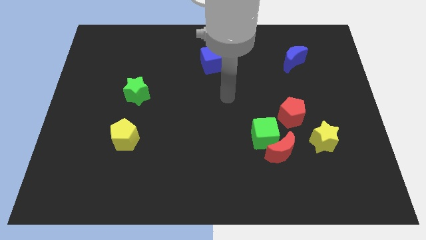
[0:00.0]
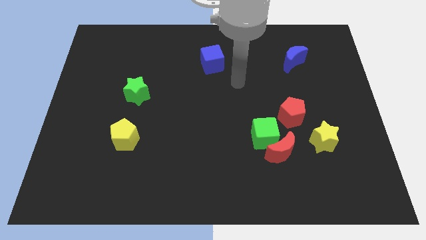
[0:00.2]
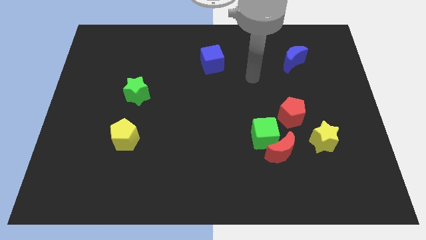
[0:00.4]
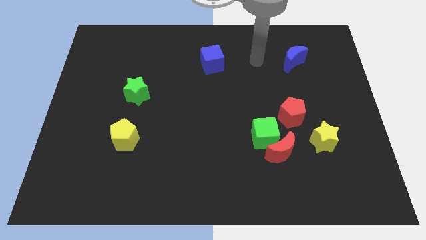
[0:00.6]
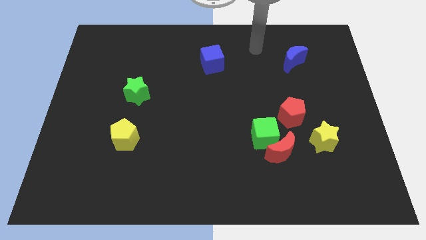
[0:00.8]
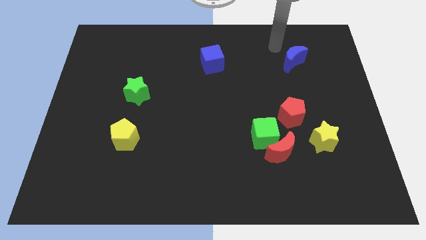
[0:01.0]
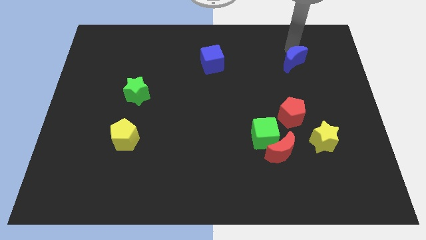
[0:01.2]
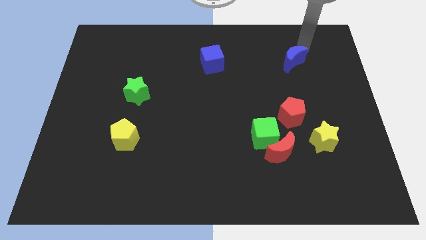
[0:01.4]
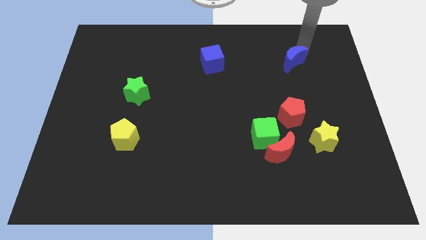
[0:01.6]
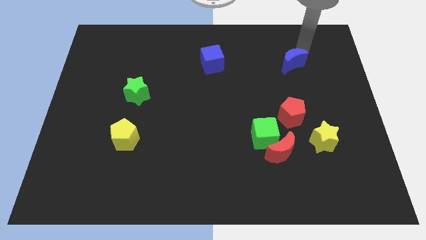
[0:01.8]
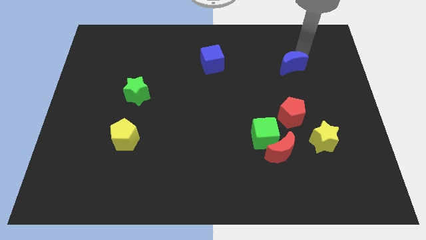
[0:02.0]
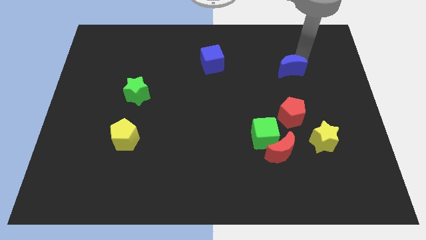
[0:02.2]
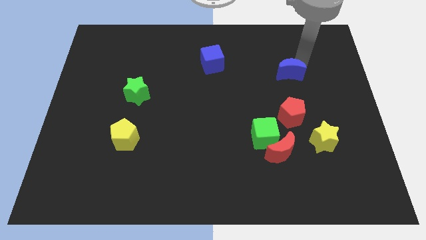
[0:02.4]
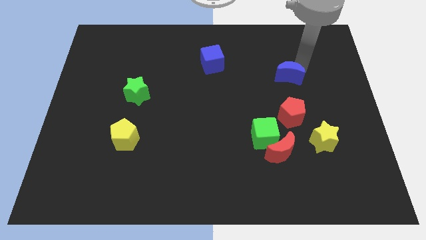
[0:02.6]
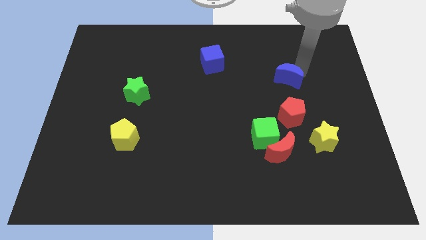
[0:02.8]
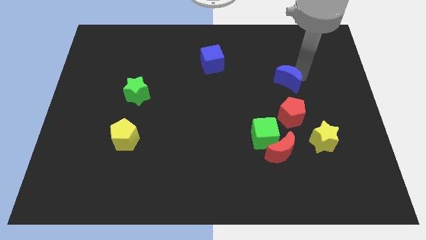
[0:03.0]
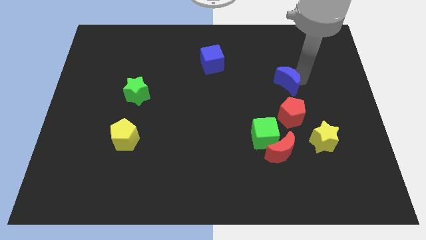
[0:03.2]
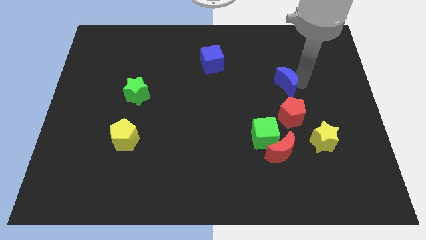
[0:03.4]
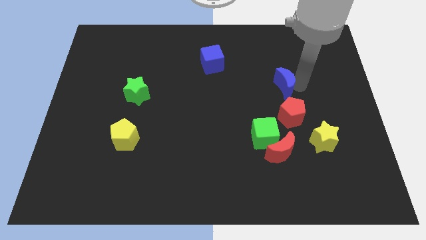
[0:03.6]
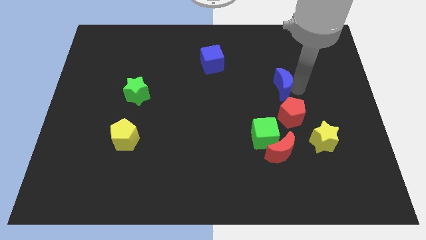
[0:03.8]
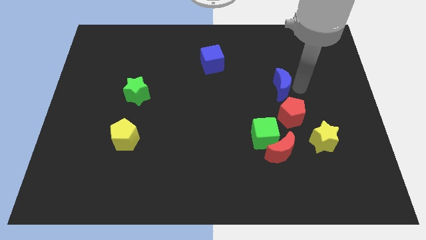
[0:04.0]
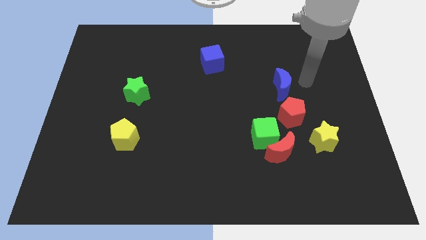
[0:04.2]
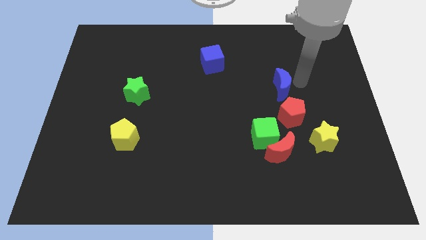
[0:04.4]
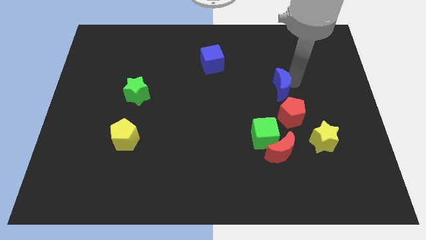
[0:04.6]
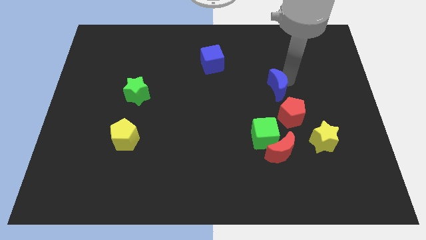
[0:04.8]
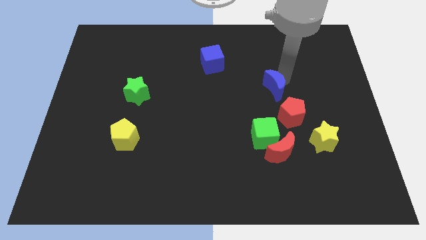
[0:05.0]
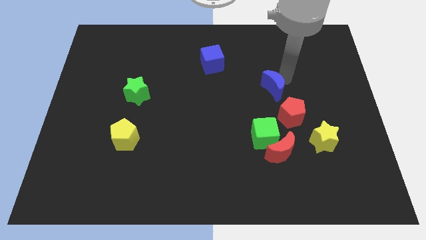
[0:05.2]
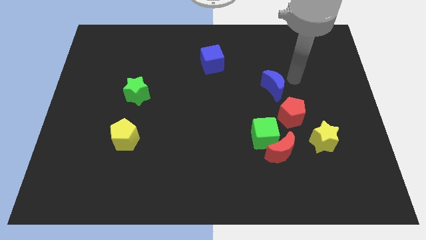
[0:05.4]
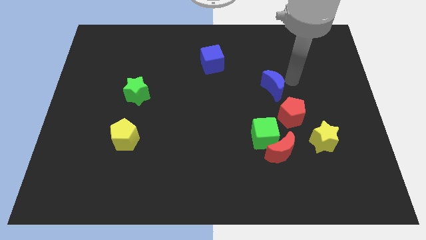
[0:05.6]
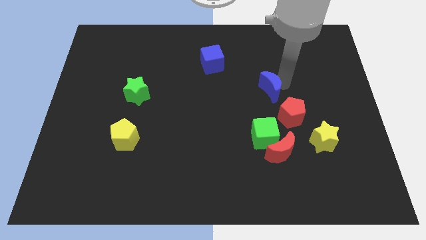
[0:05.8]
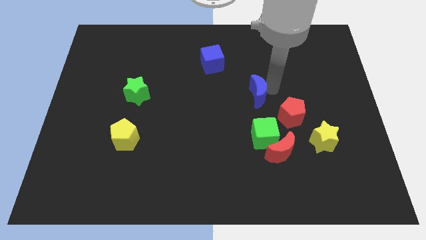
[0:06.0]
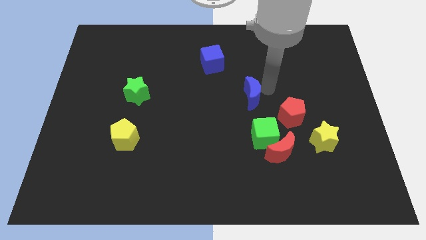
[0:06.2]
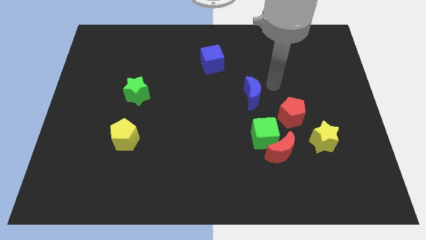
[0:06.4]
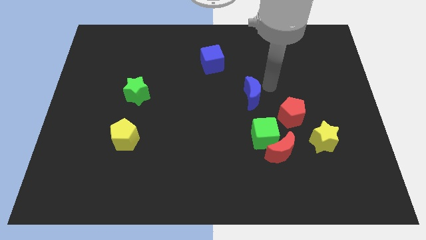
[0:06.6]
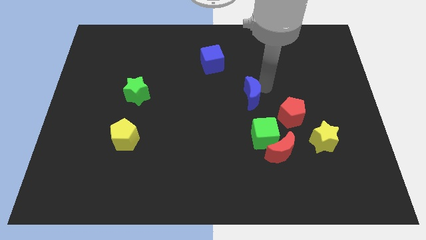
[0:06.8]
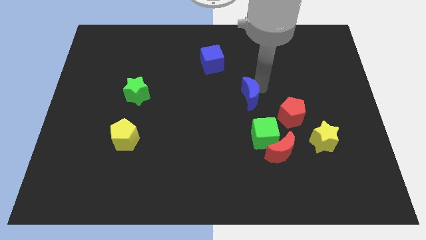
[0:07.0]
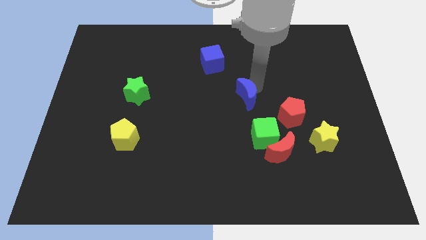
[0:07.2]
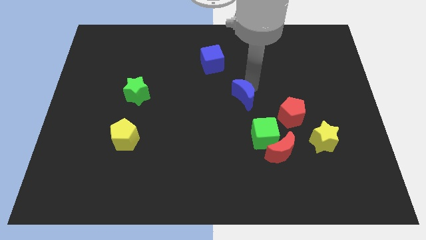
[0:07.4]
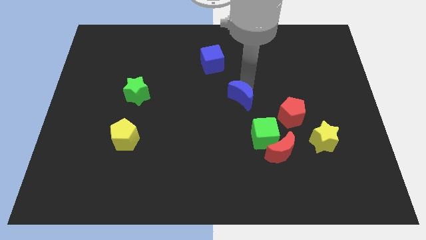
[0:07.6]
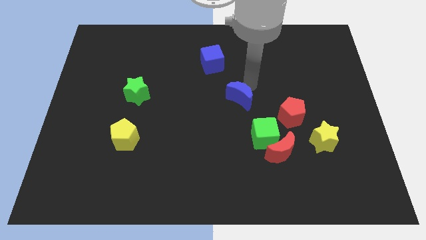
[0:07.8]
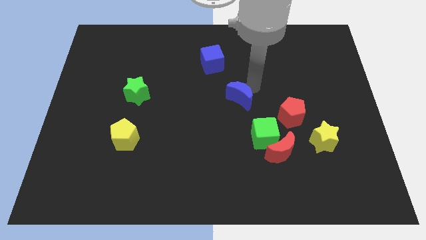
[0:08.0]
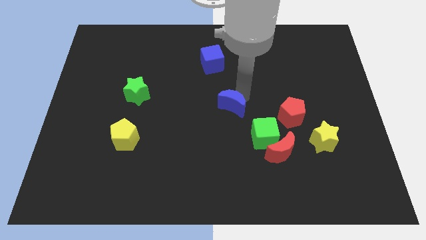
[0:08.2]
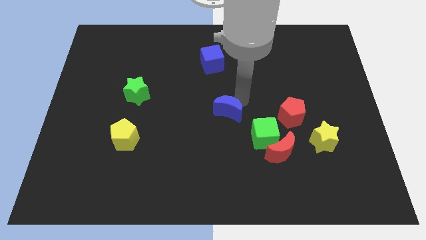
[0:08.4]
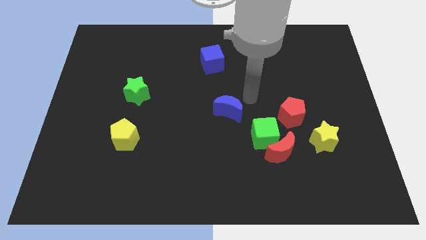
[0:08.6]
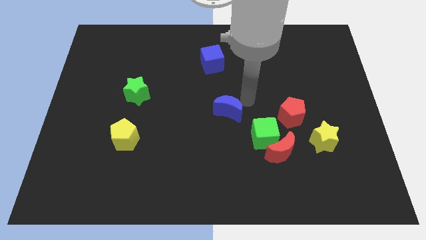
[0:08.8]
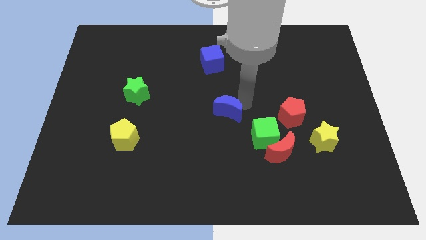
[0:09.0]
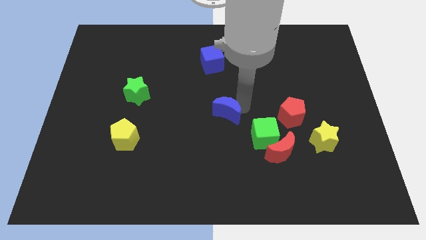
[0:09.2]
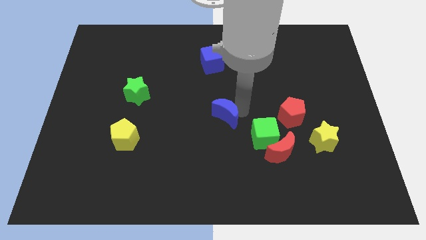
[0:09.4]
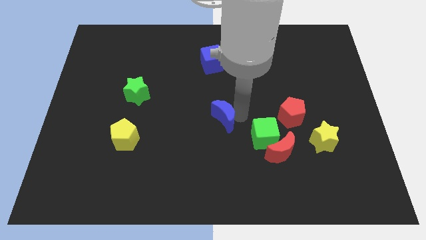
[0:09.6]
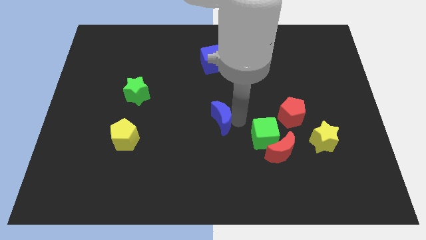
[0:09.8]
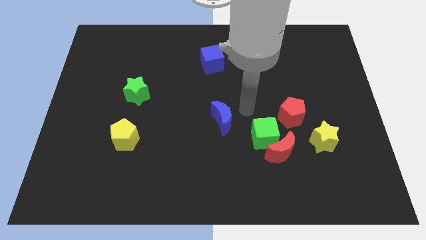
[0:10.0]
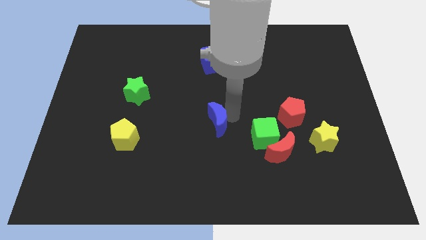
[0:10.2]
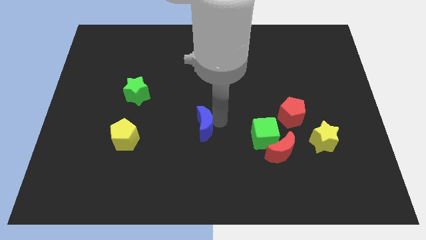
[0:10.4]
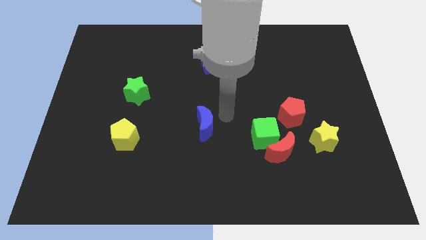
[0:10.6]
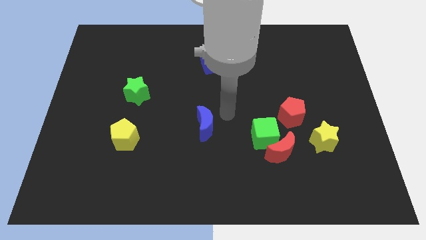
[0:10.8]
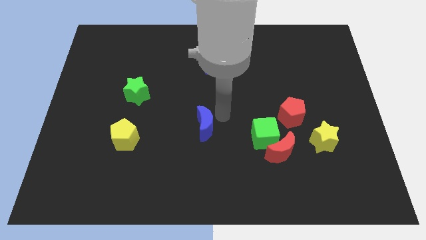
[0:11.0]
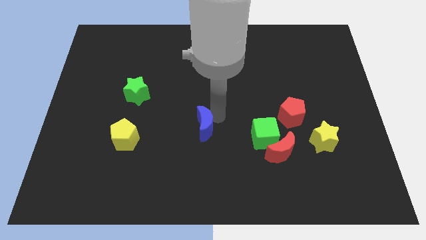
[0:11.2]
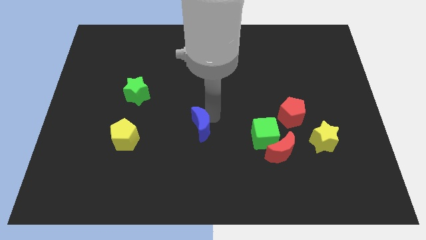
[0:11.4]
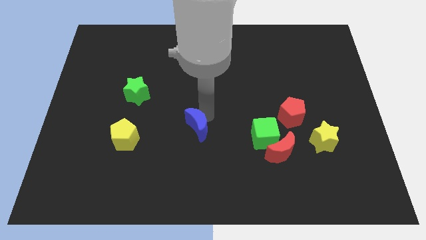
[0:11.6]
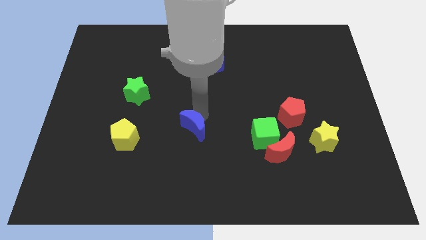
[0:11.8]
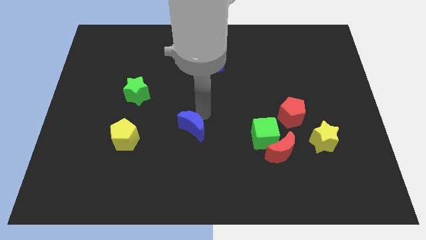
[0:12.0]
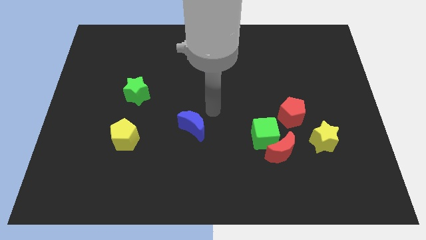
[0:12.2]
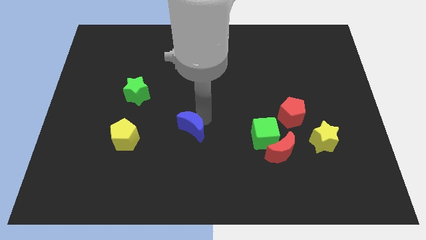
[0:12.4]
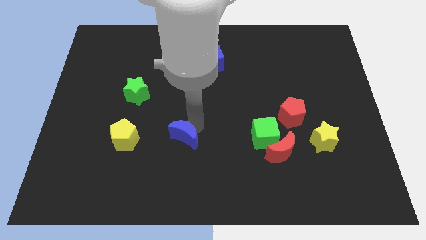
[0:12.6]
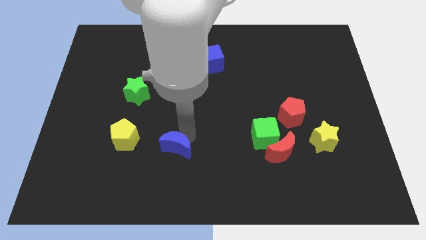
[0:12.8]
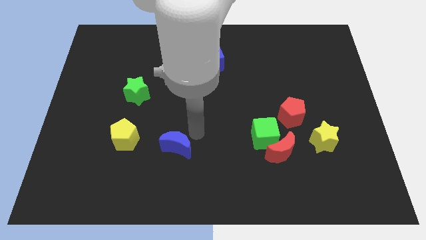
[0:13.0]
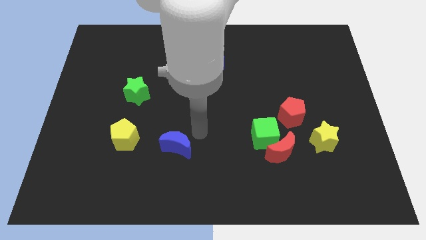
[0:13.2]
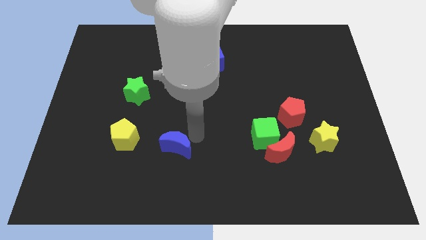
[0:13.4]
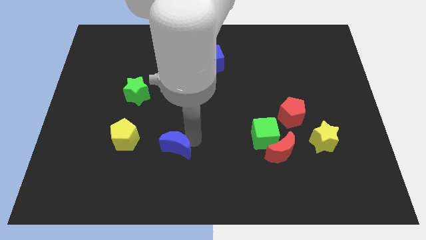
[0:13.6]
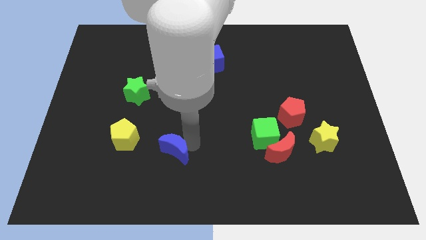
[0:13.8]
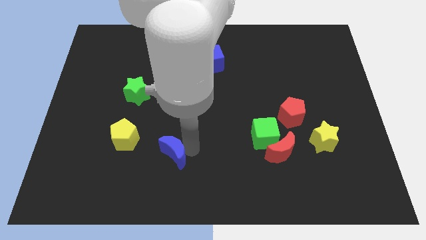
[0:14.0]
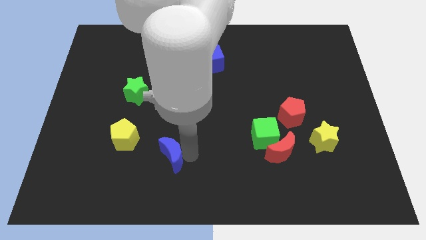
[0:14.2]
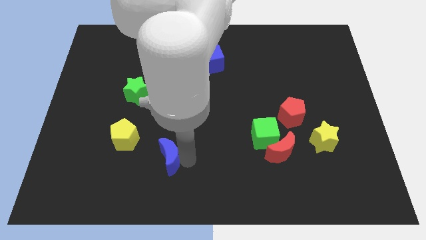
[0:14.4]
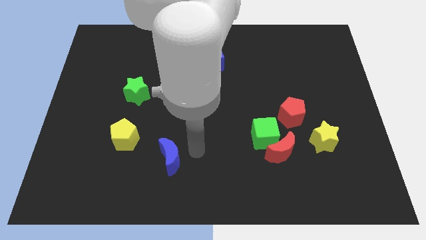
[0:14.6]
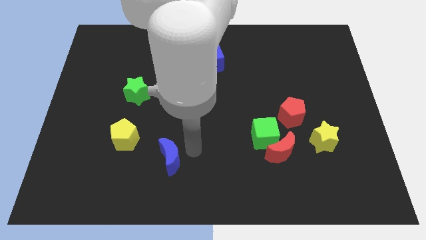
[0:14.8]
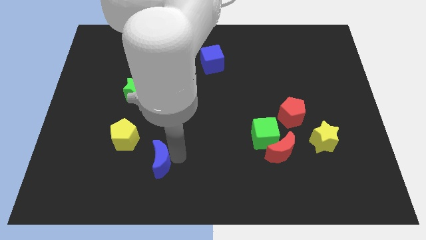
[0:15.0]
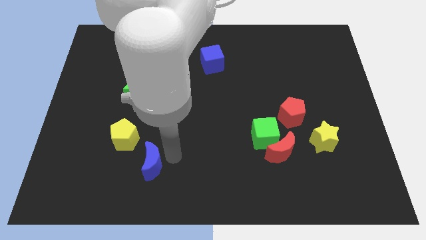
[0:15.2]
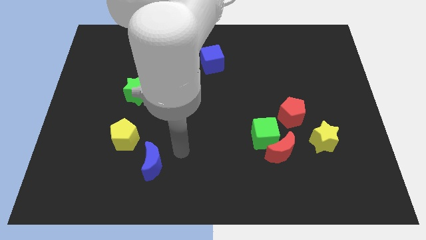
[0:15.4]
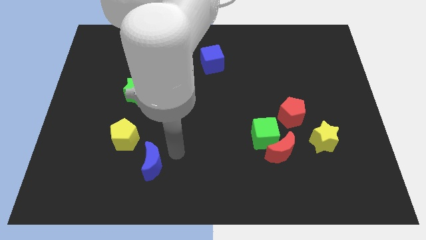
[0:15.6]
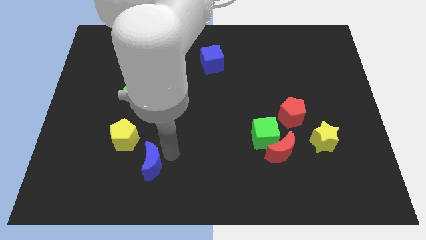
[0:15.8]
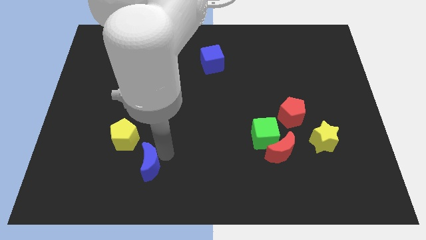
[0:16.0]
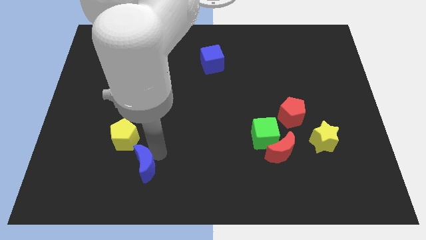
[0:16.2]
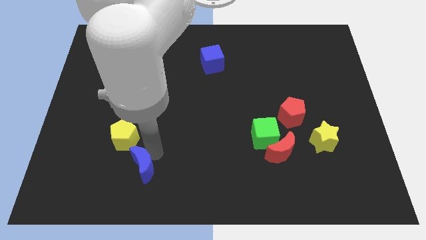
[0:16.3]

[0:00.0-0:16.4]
put the blue moon below the yellow pentagon
